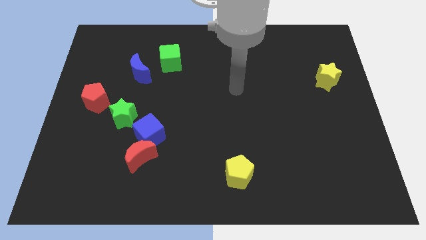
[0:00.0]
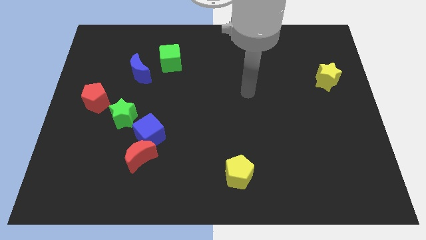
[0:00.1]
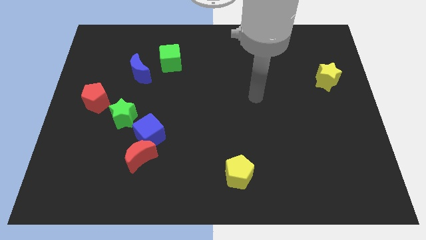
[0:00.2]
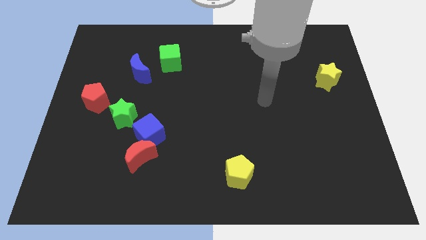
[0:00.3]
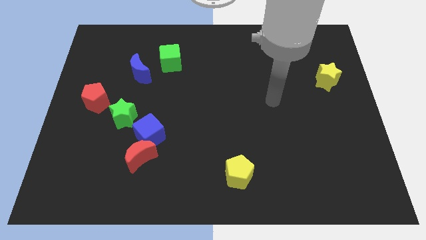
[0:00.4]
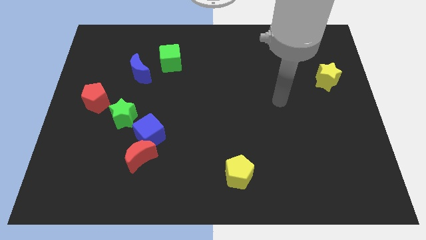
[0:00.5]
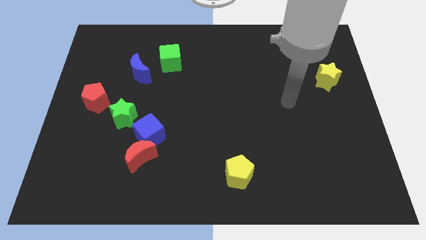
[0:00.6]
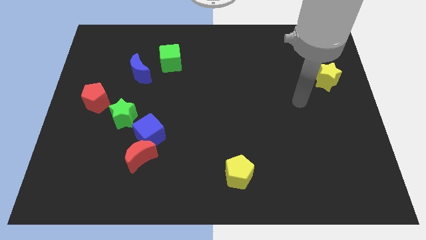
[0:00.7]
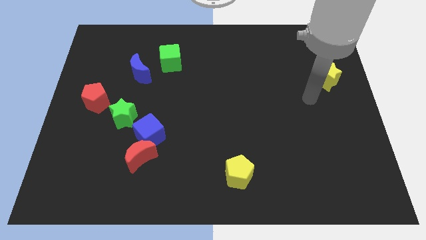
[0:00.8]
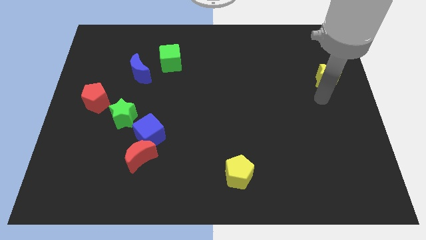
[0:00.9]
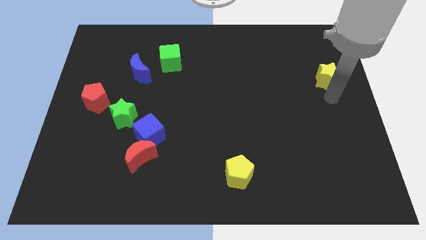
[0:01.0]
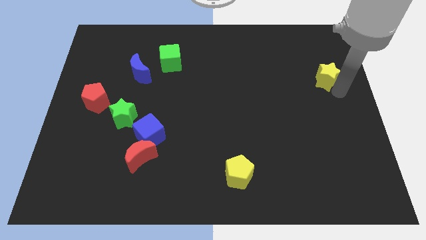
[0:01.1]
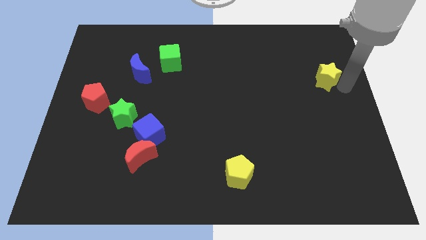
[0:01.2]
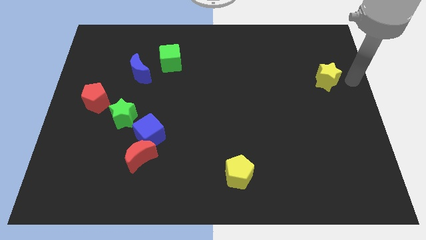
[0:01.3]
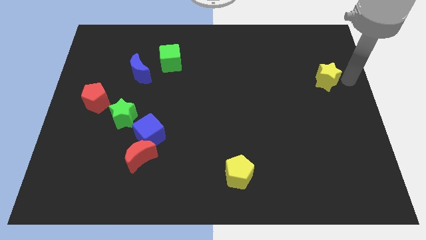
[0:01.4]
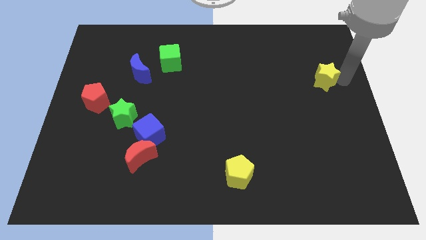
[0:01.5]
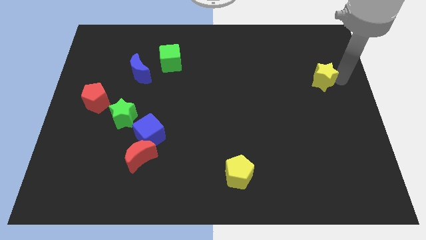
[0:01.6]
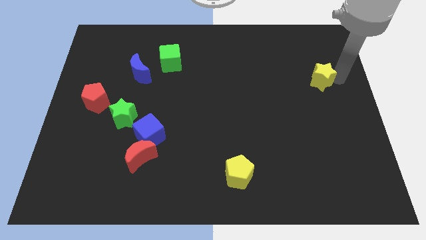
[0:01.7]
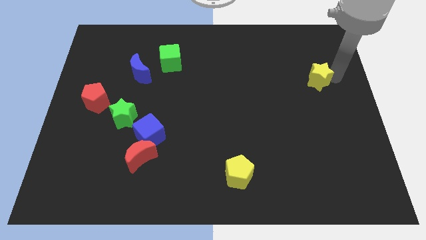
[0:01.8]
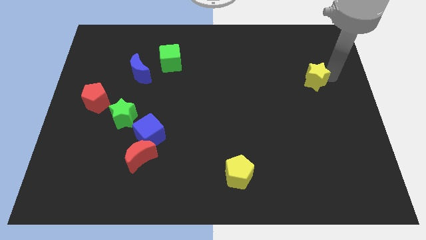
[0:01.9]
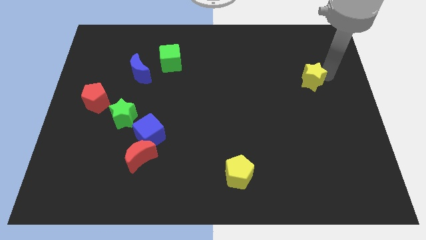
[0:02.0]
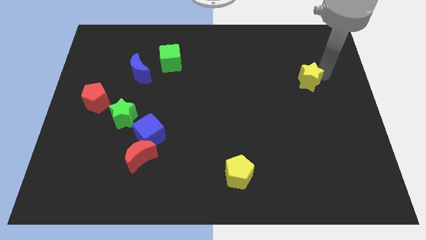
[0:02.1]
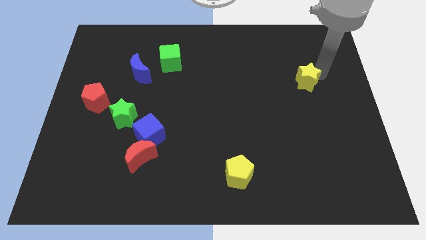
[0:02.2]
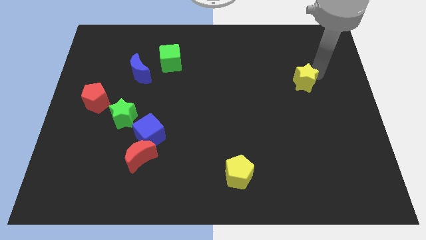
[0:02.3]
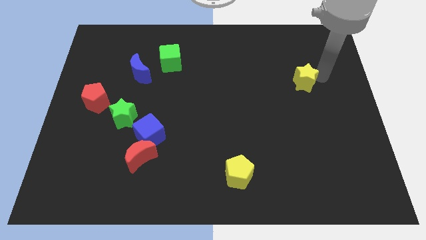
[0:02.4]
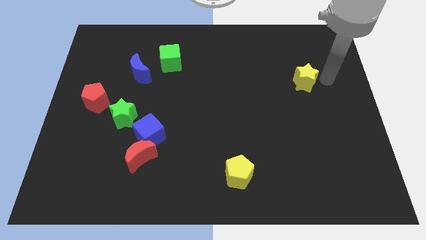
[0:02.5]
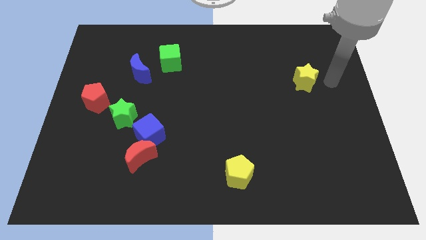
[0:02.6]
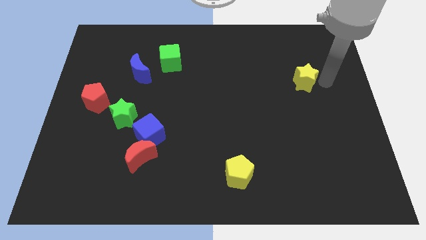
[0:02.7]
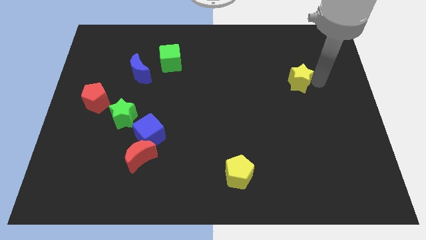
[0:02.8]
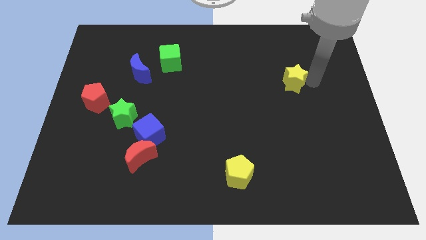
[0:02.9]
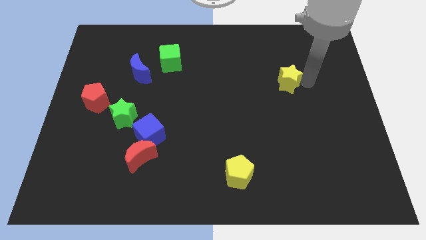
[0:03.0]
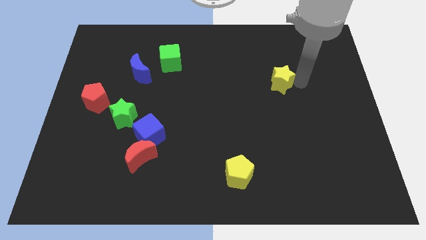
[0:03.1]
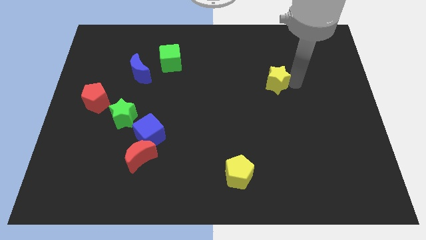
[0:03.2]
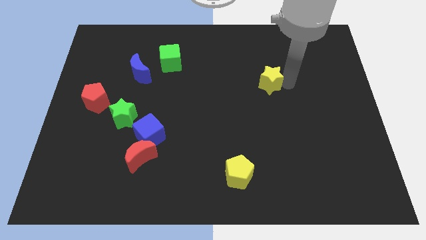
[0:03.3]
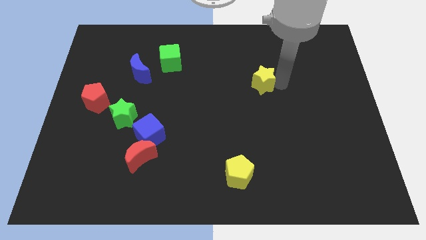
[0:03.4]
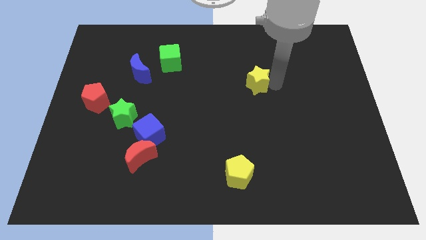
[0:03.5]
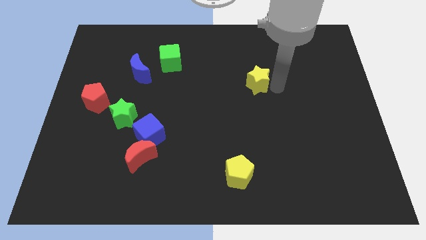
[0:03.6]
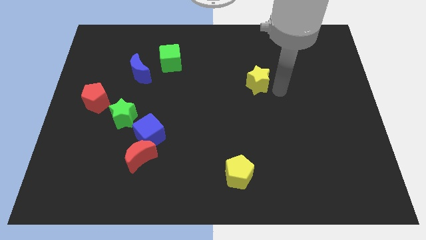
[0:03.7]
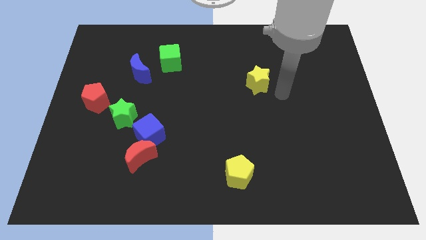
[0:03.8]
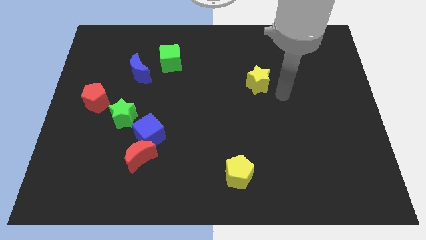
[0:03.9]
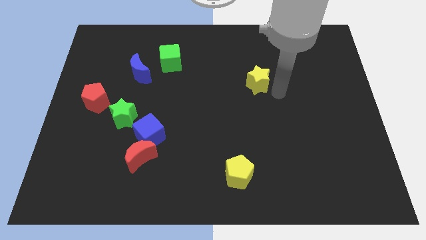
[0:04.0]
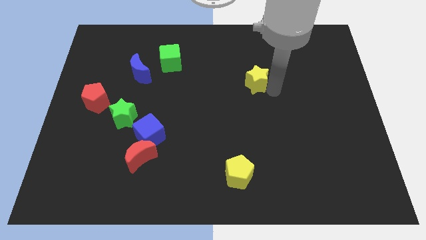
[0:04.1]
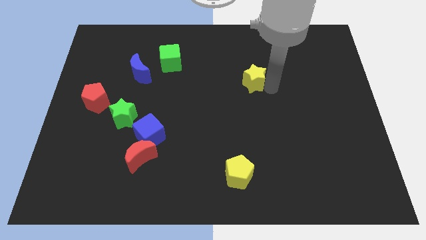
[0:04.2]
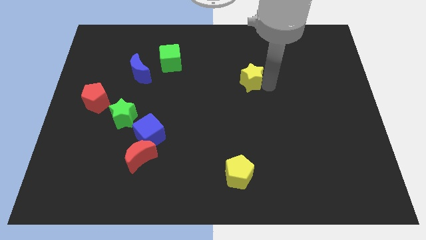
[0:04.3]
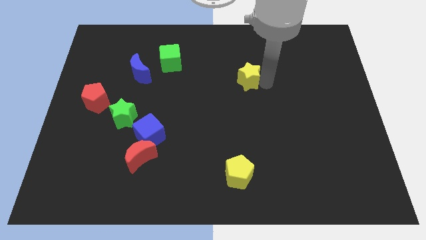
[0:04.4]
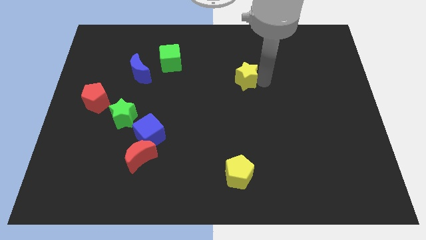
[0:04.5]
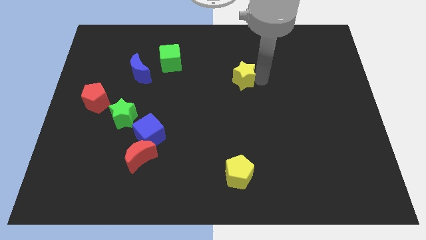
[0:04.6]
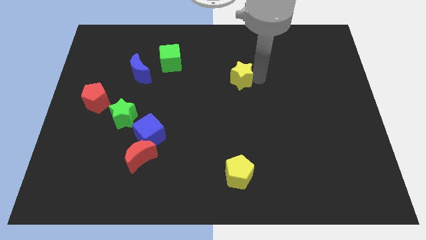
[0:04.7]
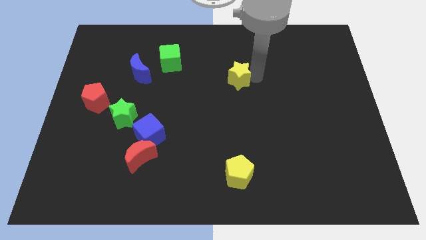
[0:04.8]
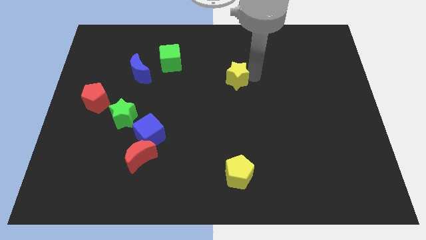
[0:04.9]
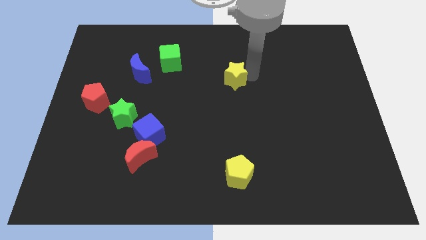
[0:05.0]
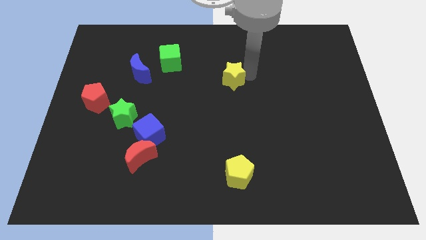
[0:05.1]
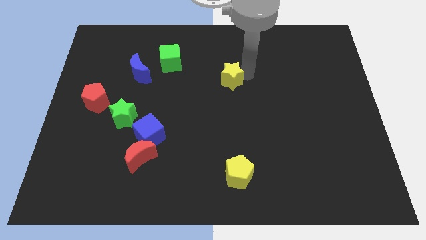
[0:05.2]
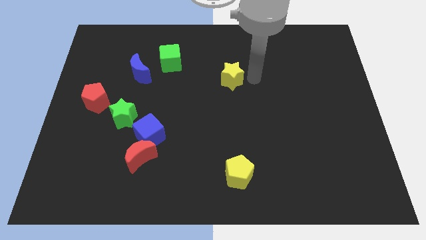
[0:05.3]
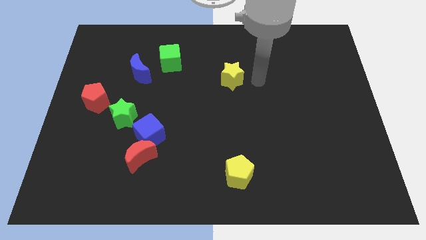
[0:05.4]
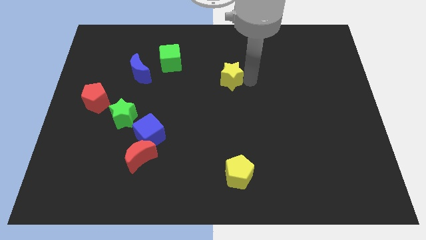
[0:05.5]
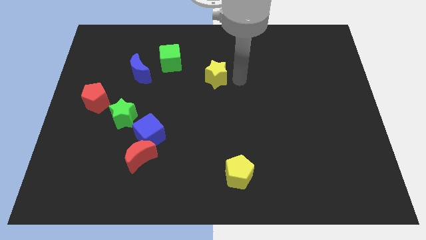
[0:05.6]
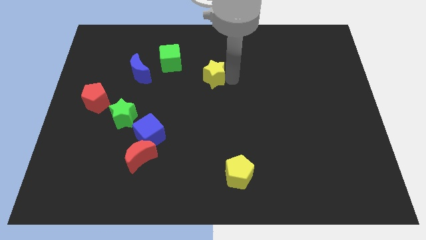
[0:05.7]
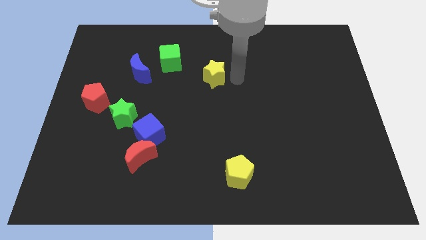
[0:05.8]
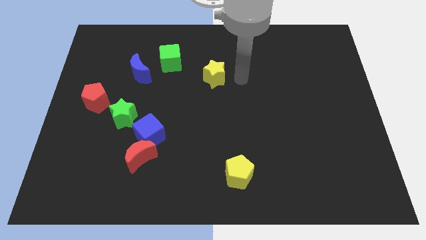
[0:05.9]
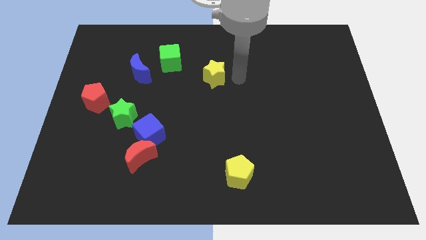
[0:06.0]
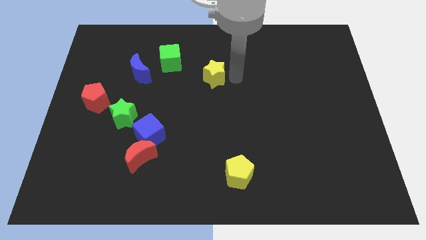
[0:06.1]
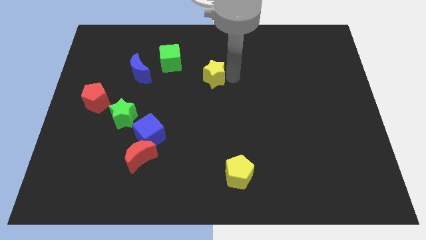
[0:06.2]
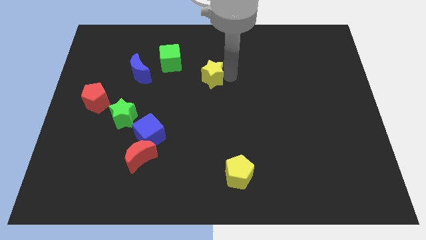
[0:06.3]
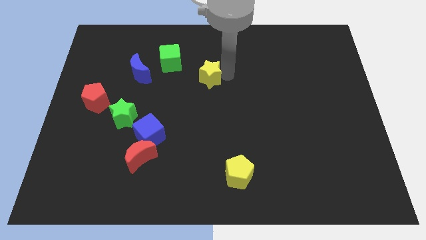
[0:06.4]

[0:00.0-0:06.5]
slide the yellow star diagonally down and to the right of the green cube

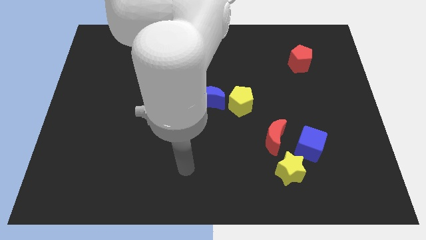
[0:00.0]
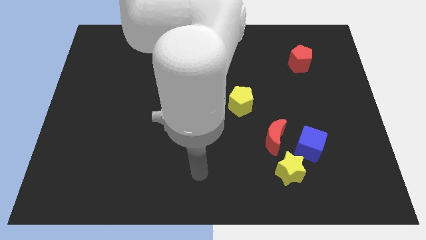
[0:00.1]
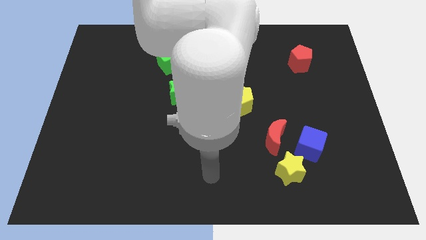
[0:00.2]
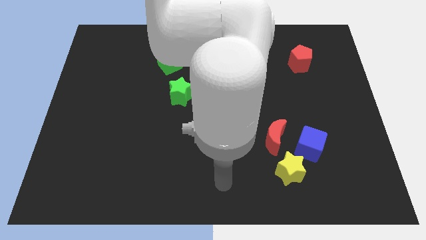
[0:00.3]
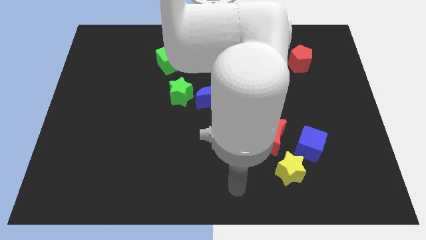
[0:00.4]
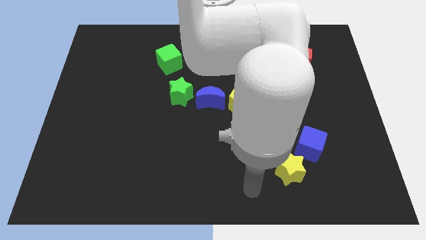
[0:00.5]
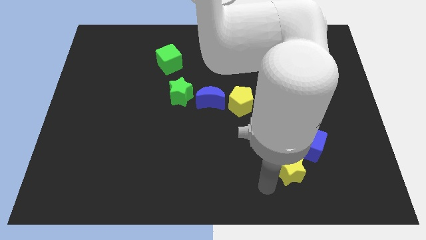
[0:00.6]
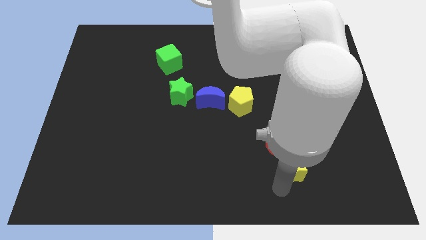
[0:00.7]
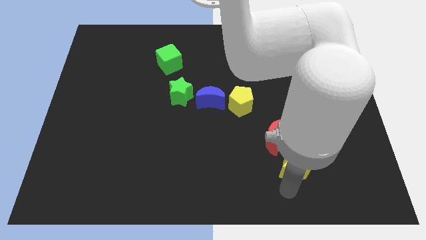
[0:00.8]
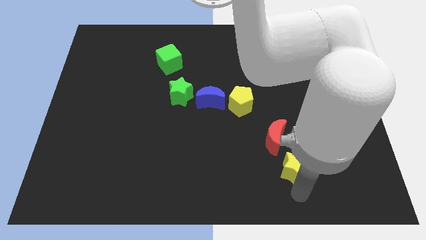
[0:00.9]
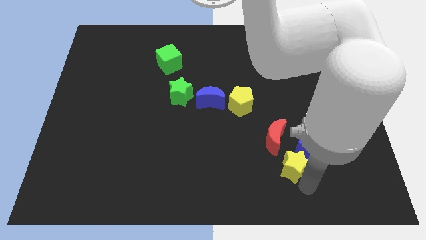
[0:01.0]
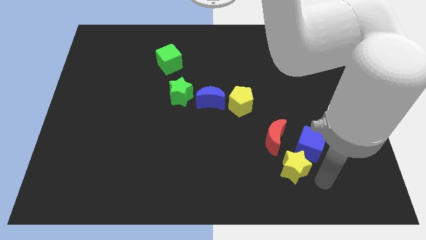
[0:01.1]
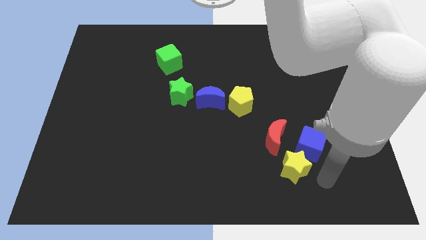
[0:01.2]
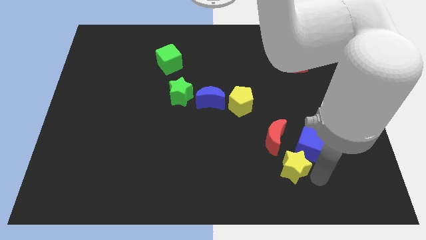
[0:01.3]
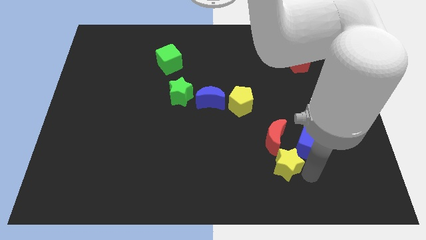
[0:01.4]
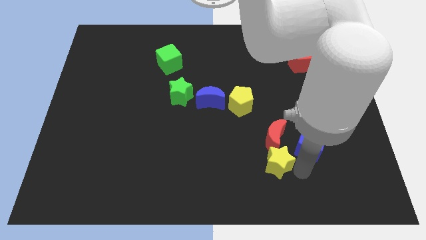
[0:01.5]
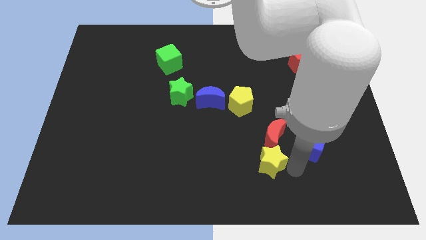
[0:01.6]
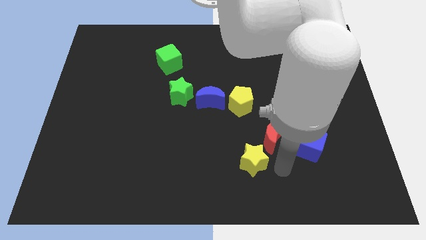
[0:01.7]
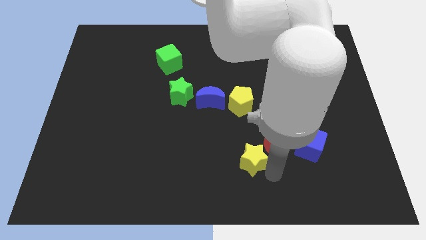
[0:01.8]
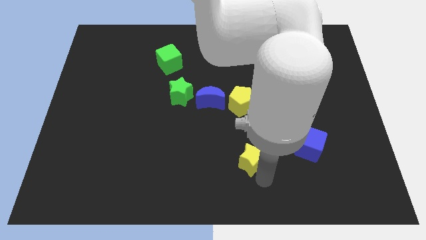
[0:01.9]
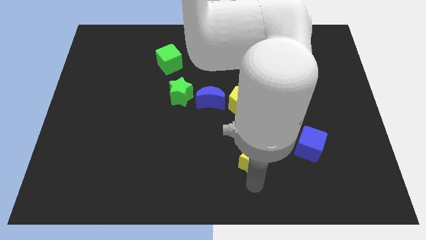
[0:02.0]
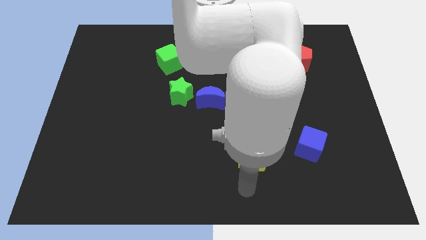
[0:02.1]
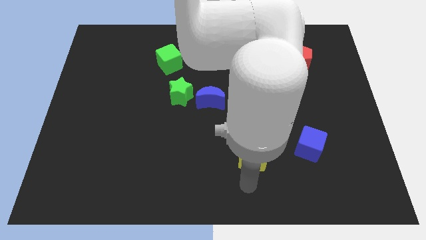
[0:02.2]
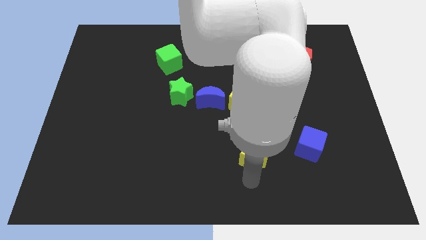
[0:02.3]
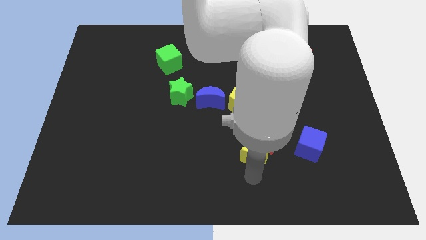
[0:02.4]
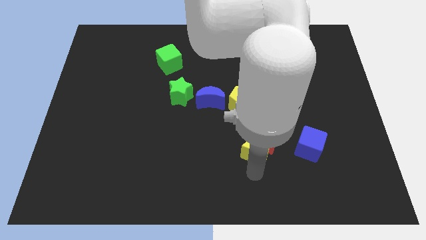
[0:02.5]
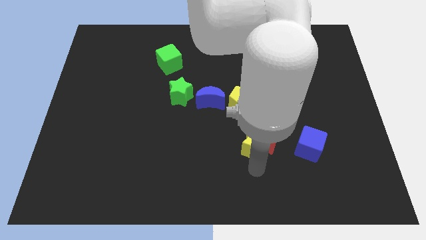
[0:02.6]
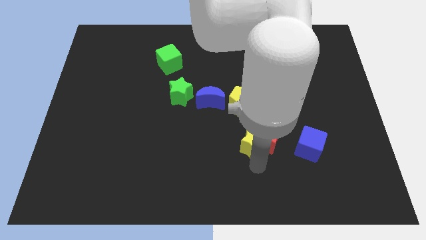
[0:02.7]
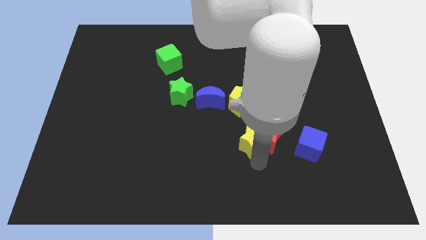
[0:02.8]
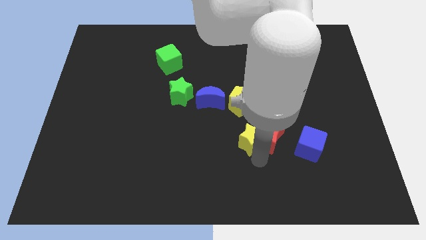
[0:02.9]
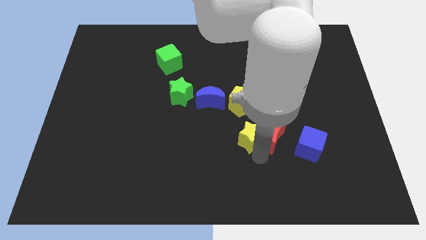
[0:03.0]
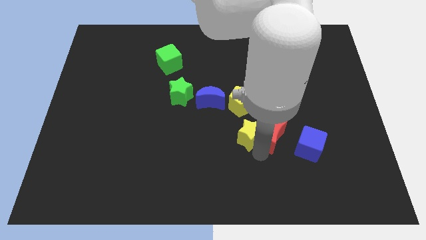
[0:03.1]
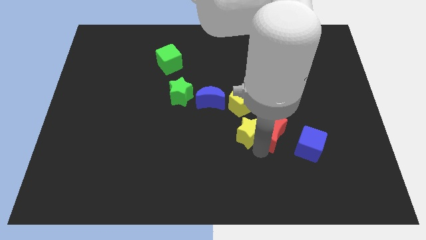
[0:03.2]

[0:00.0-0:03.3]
move the yellow star diagonally down and to the right of the yellow pentagon
